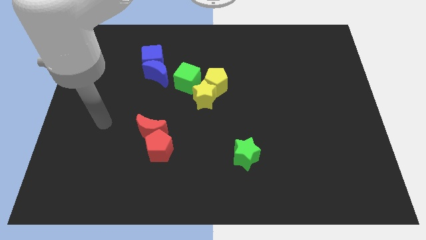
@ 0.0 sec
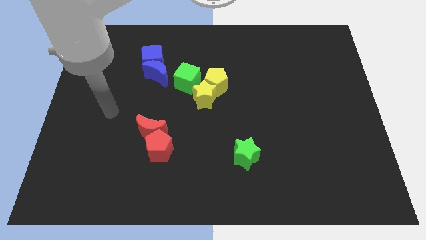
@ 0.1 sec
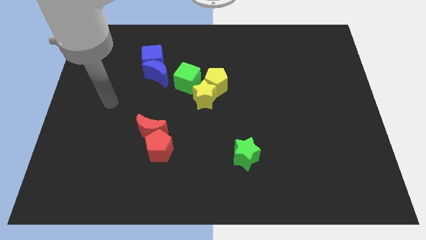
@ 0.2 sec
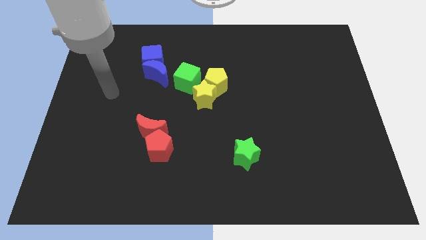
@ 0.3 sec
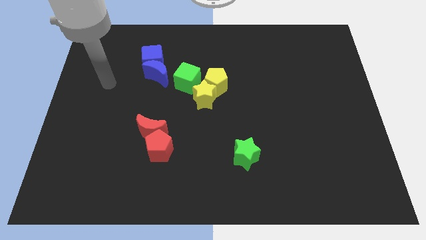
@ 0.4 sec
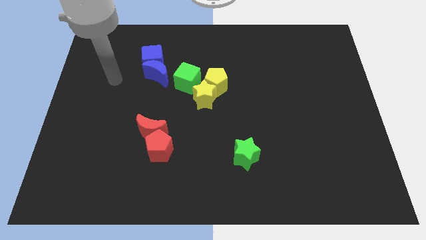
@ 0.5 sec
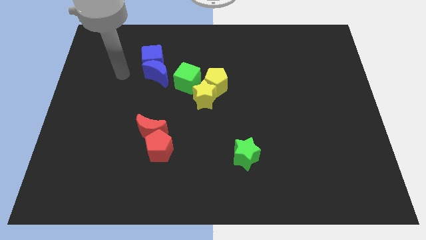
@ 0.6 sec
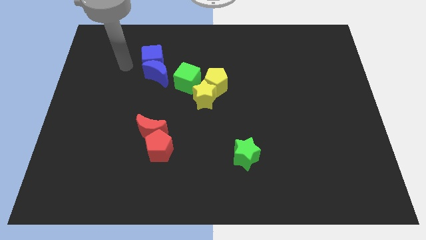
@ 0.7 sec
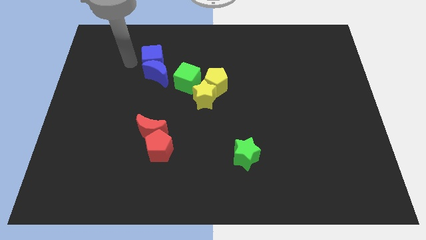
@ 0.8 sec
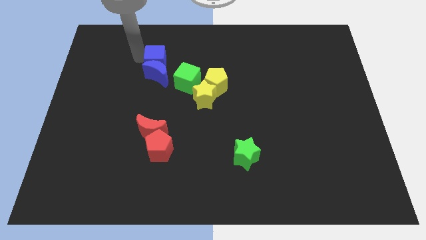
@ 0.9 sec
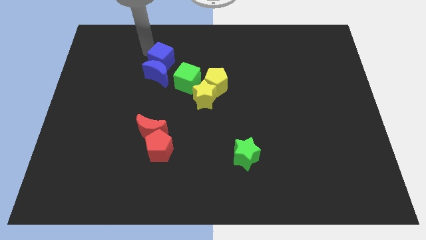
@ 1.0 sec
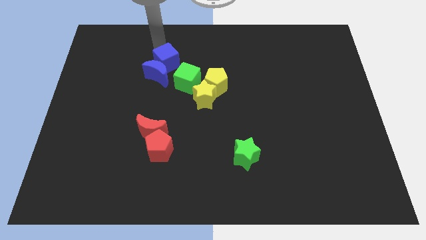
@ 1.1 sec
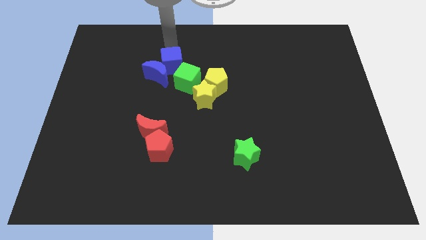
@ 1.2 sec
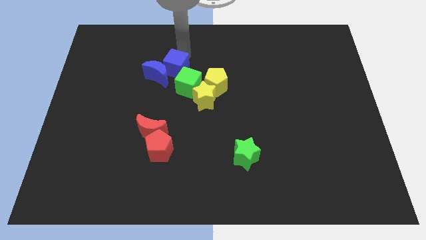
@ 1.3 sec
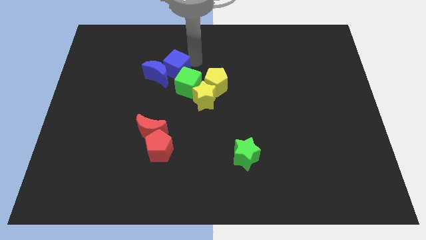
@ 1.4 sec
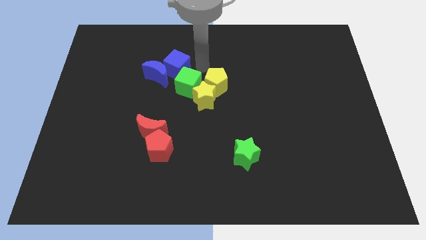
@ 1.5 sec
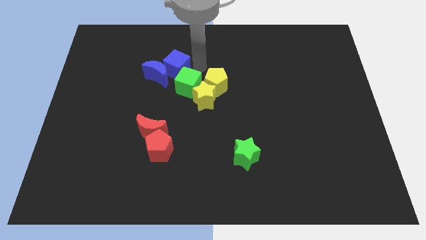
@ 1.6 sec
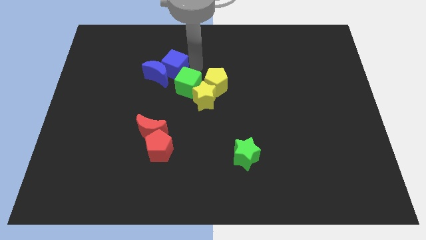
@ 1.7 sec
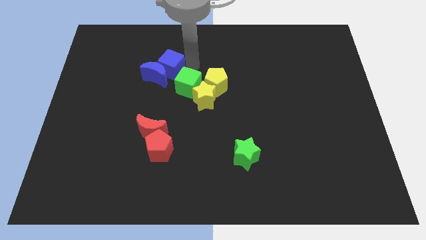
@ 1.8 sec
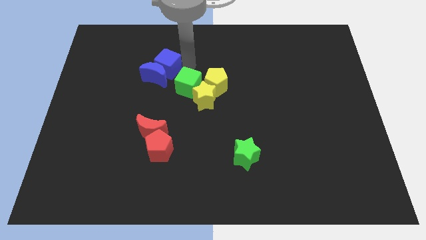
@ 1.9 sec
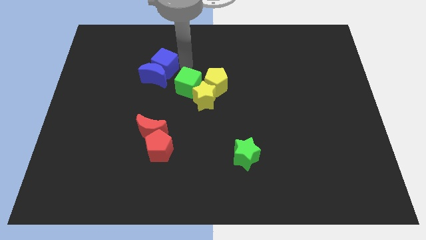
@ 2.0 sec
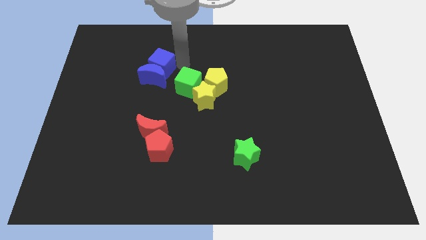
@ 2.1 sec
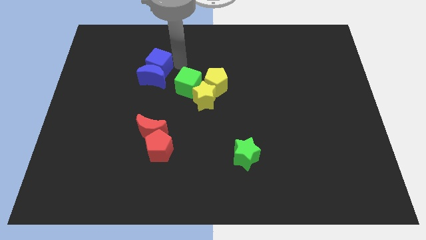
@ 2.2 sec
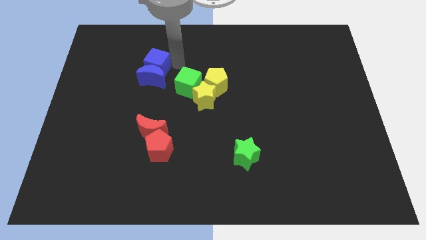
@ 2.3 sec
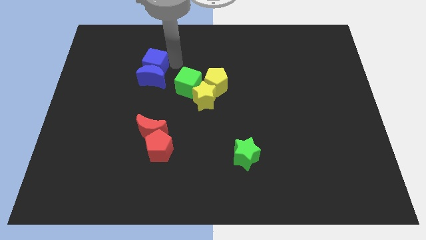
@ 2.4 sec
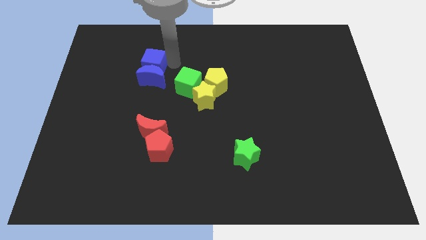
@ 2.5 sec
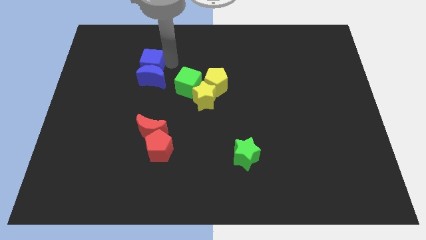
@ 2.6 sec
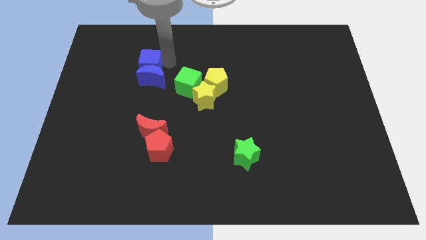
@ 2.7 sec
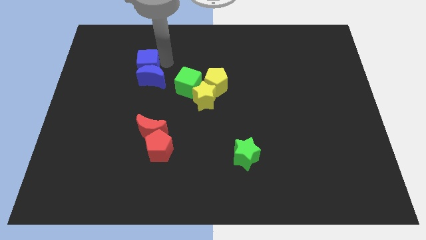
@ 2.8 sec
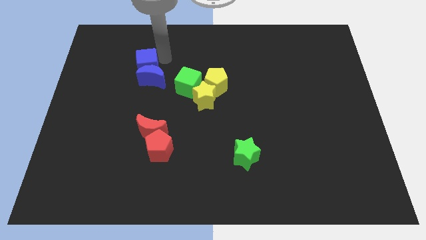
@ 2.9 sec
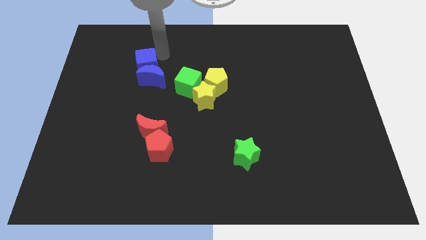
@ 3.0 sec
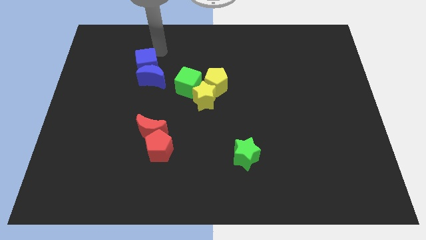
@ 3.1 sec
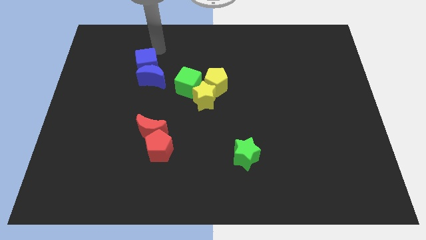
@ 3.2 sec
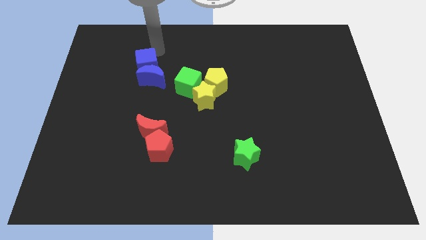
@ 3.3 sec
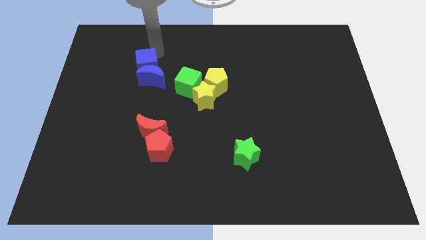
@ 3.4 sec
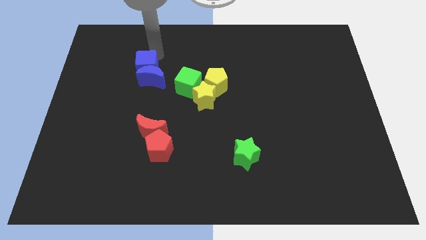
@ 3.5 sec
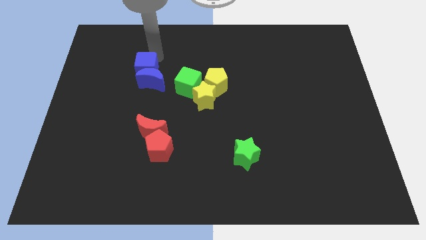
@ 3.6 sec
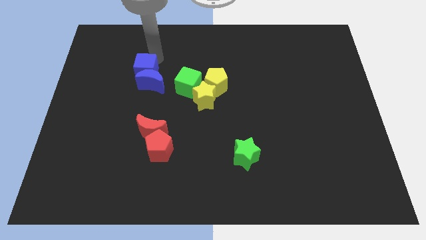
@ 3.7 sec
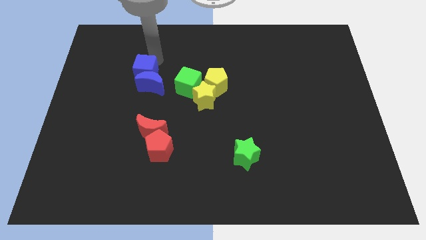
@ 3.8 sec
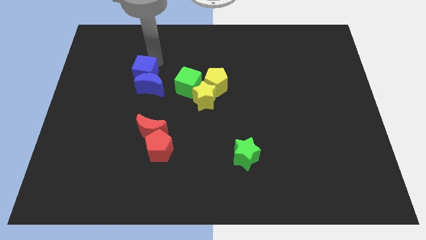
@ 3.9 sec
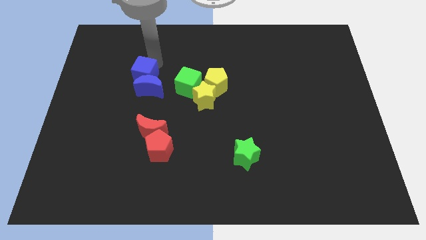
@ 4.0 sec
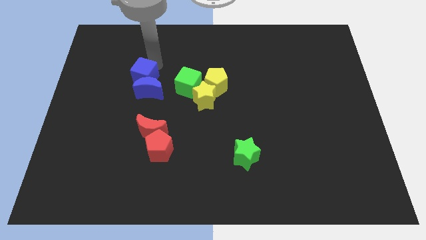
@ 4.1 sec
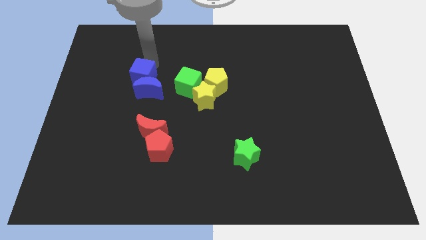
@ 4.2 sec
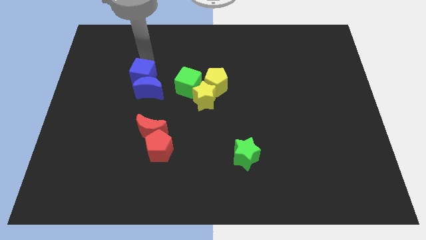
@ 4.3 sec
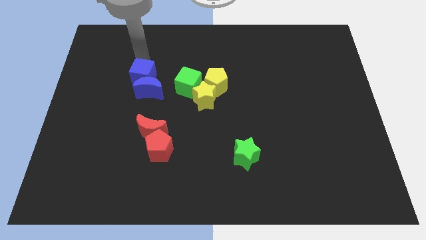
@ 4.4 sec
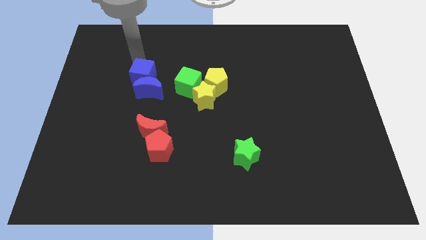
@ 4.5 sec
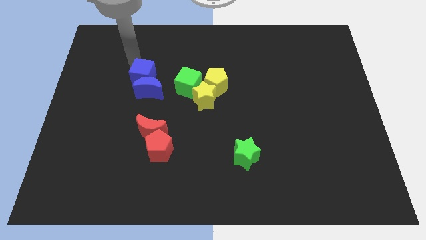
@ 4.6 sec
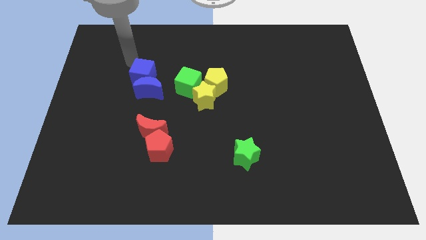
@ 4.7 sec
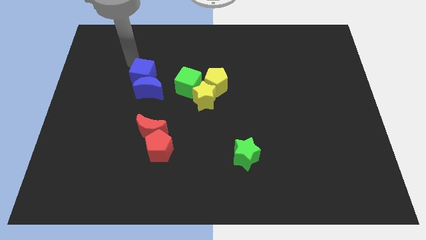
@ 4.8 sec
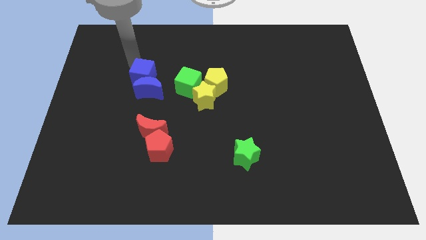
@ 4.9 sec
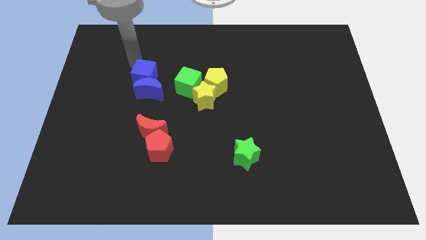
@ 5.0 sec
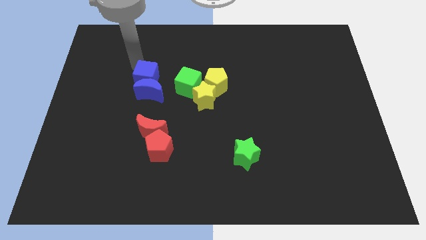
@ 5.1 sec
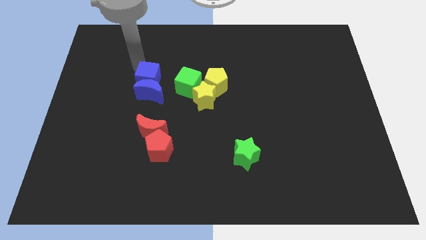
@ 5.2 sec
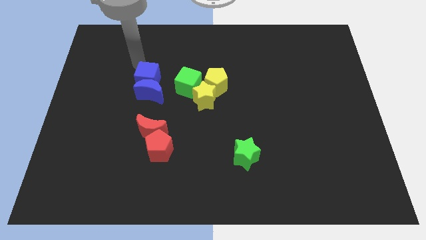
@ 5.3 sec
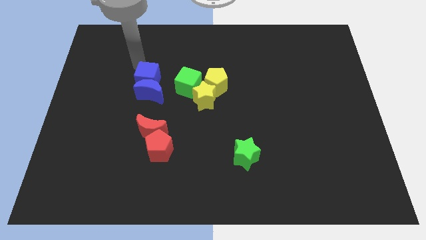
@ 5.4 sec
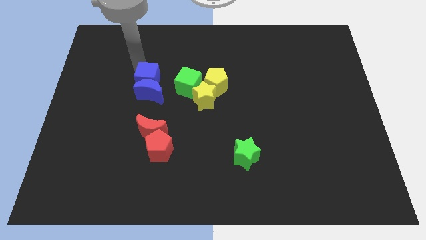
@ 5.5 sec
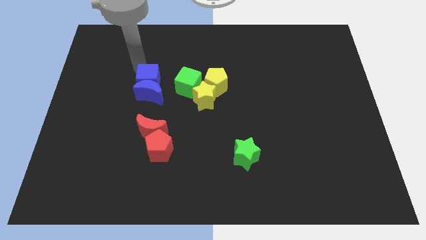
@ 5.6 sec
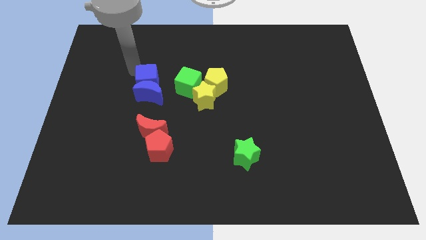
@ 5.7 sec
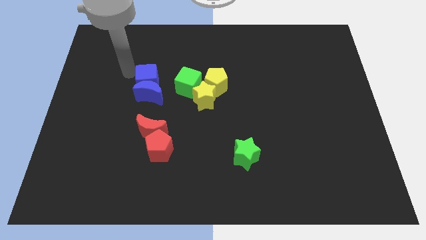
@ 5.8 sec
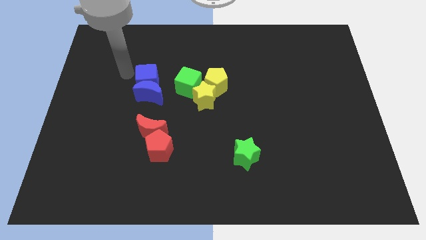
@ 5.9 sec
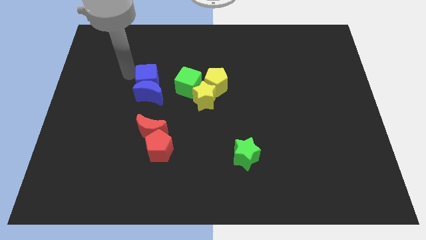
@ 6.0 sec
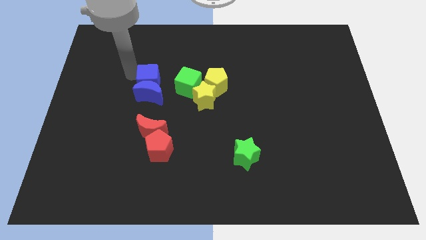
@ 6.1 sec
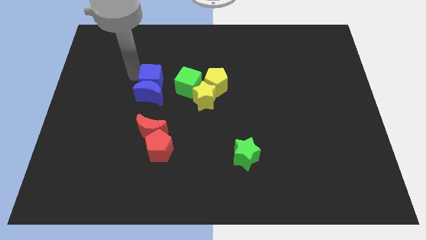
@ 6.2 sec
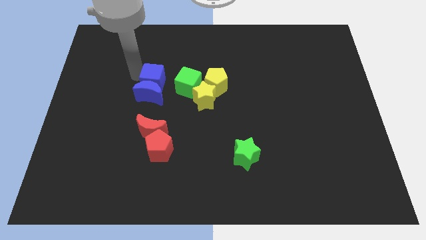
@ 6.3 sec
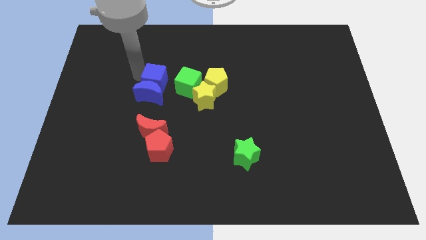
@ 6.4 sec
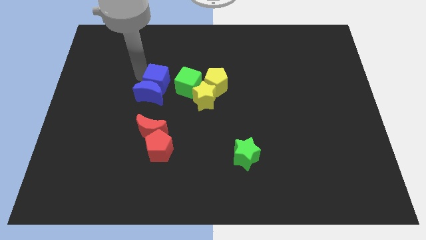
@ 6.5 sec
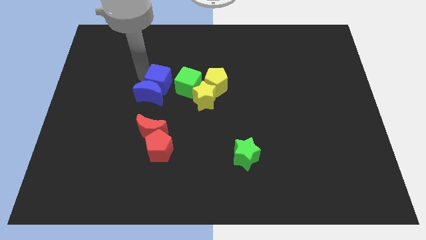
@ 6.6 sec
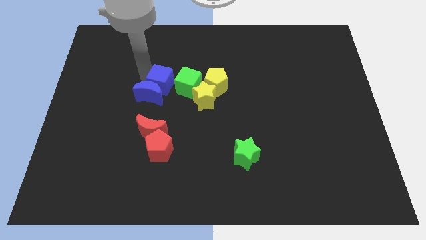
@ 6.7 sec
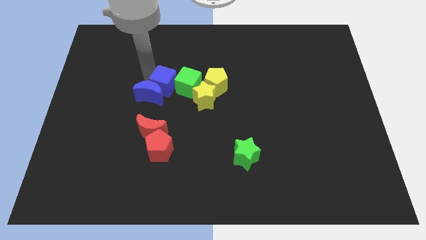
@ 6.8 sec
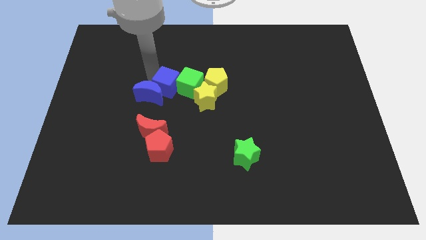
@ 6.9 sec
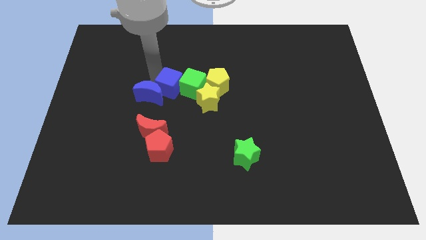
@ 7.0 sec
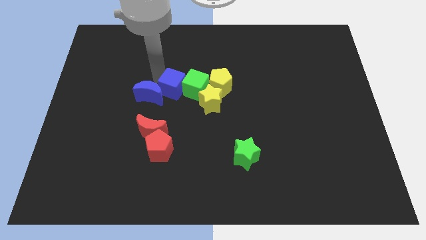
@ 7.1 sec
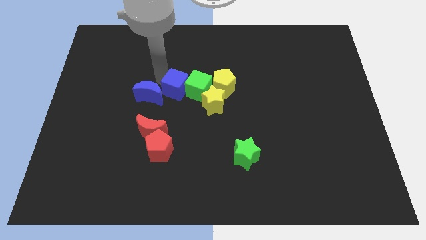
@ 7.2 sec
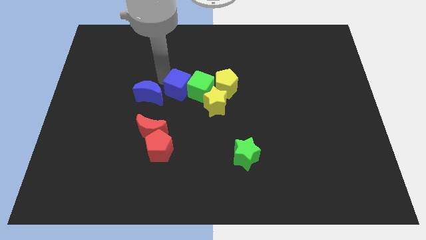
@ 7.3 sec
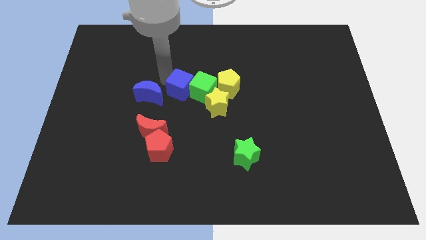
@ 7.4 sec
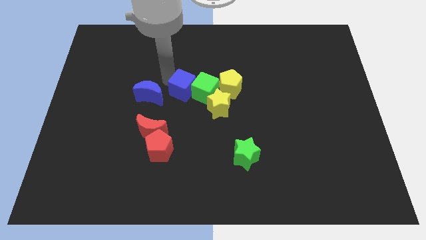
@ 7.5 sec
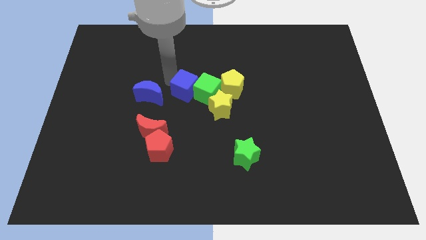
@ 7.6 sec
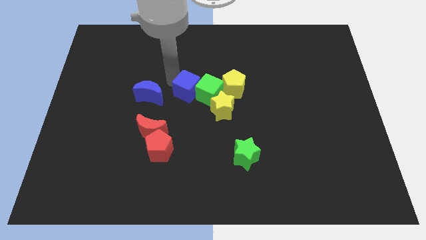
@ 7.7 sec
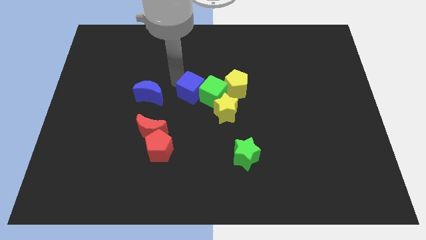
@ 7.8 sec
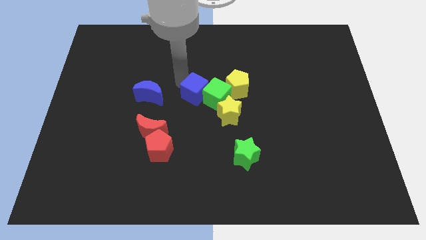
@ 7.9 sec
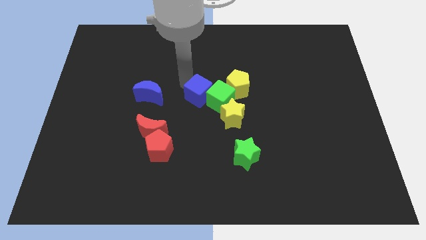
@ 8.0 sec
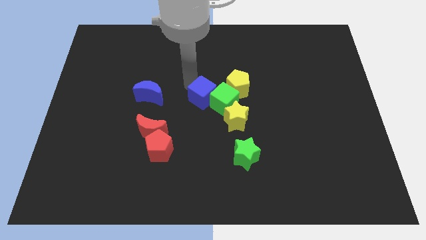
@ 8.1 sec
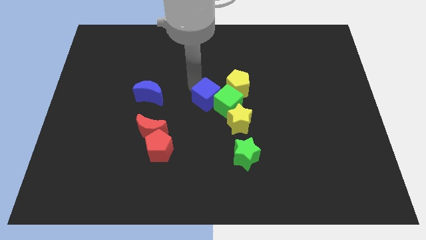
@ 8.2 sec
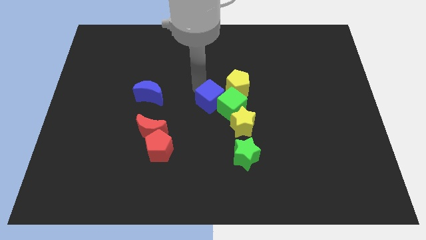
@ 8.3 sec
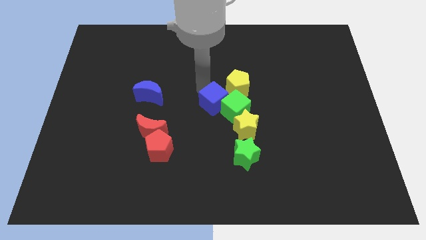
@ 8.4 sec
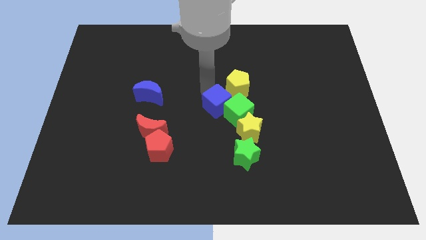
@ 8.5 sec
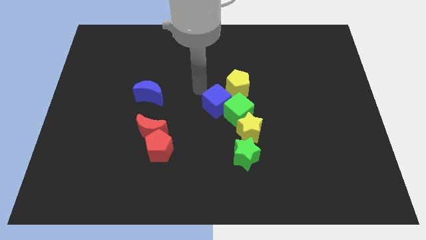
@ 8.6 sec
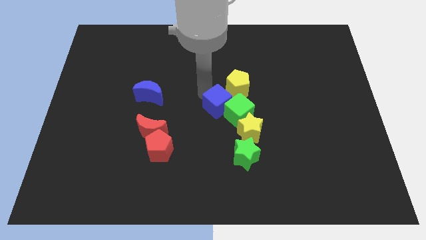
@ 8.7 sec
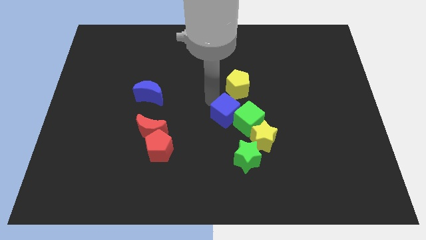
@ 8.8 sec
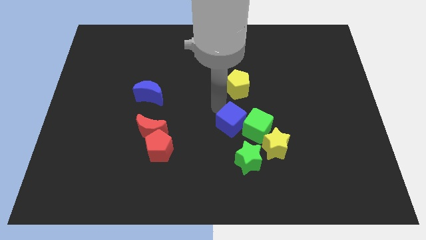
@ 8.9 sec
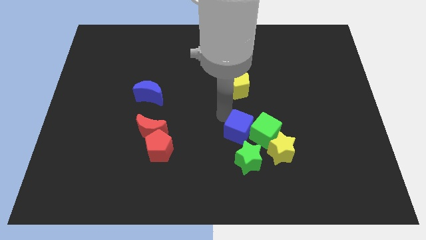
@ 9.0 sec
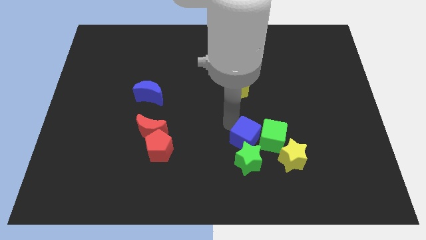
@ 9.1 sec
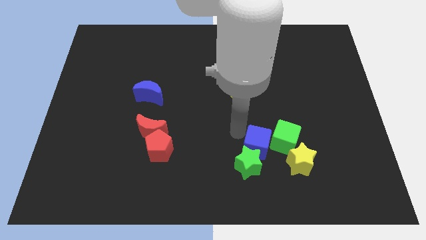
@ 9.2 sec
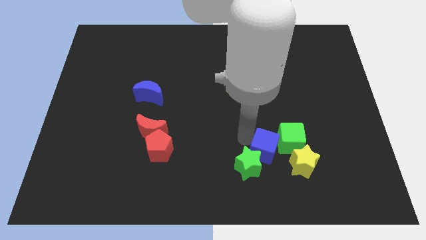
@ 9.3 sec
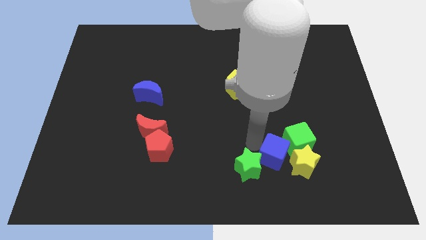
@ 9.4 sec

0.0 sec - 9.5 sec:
slide the blue cube close to the yellow star
